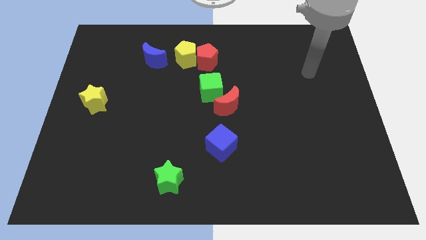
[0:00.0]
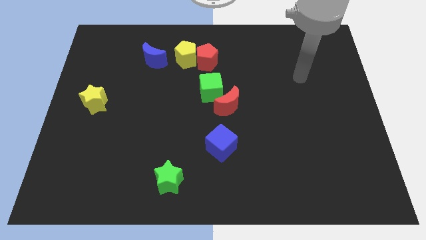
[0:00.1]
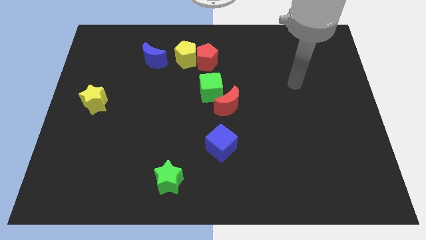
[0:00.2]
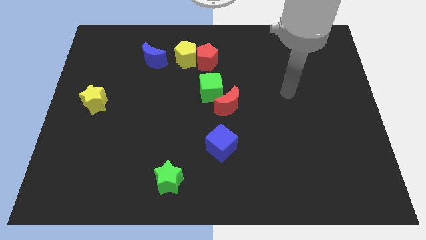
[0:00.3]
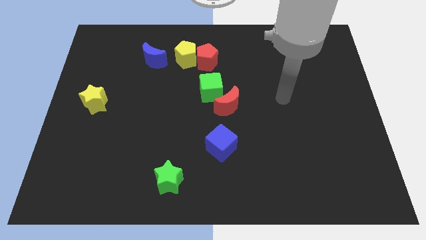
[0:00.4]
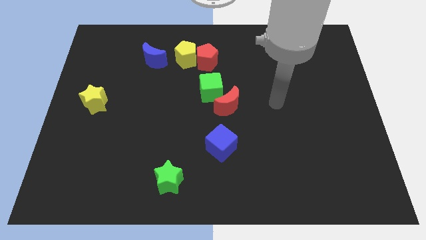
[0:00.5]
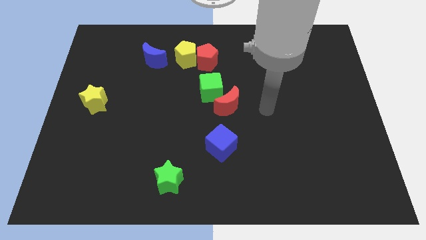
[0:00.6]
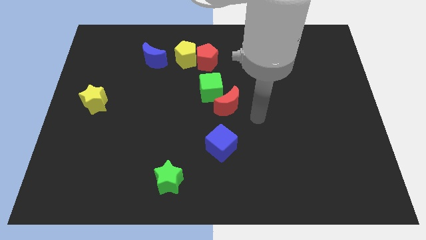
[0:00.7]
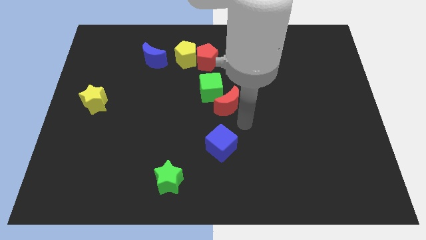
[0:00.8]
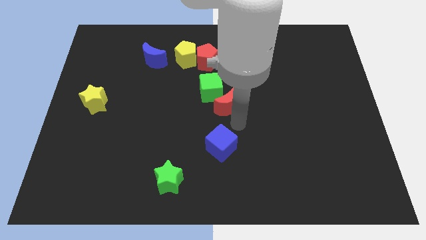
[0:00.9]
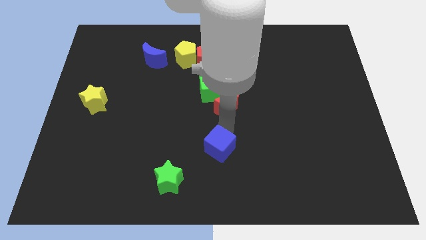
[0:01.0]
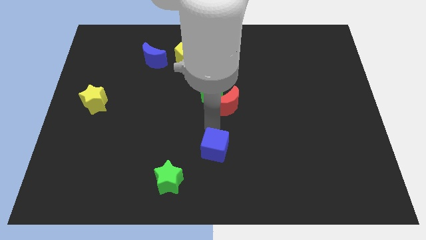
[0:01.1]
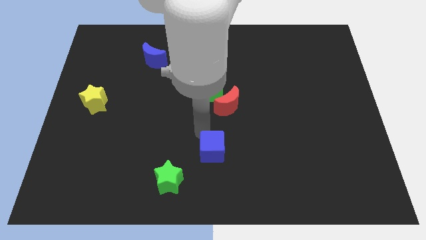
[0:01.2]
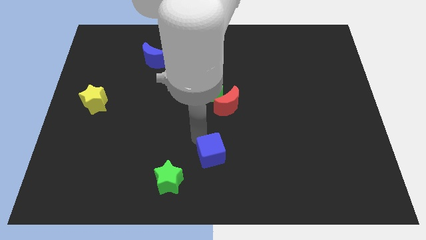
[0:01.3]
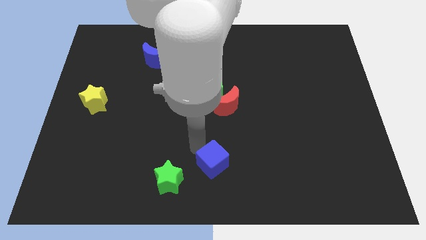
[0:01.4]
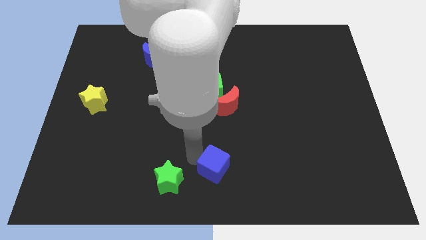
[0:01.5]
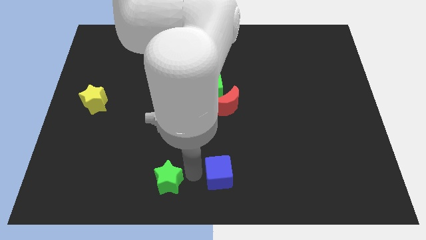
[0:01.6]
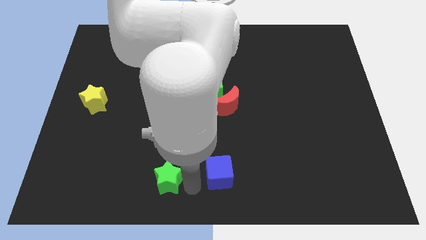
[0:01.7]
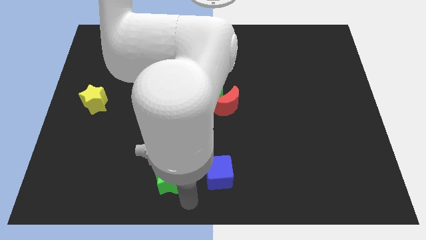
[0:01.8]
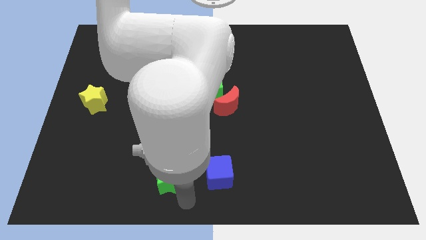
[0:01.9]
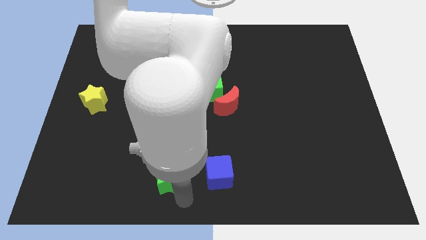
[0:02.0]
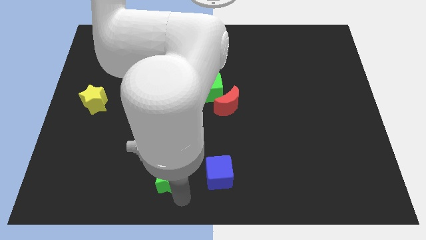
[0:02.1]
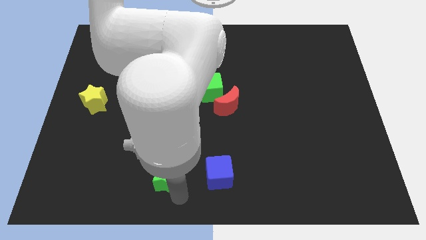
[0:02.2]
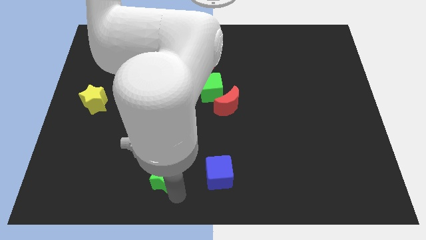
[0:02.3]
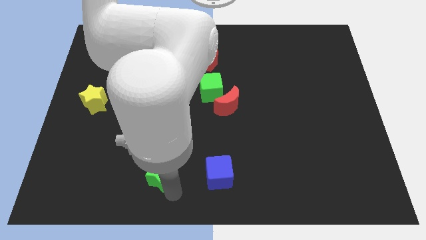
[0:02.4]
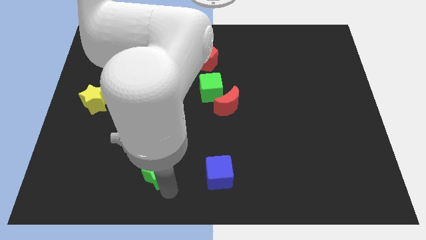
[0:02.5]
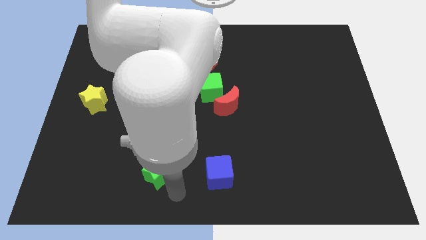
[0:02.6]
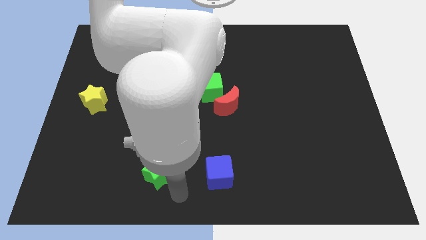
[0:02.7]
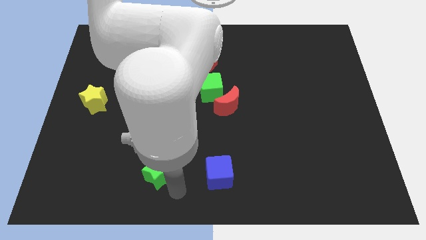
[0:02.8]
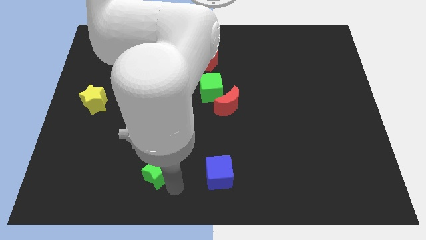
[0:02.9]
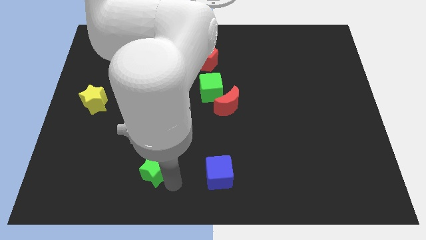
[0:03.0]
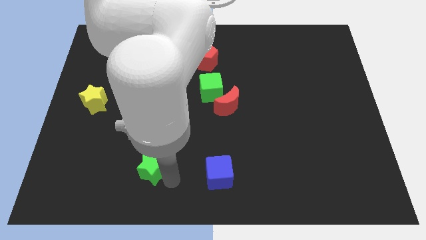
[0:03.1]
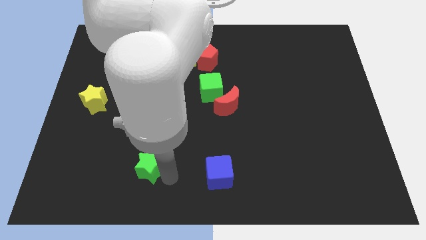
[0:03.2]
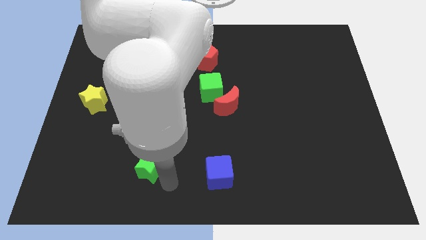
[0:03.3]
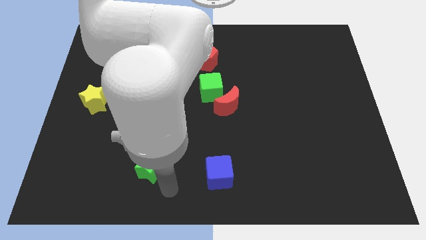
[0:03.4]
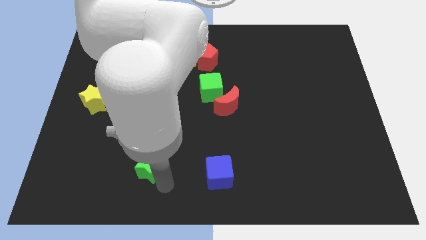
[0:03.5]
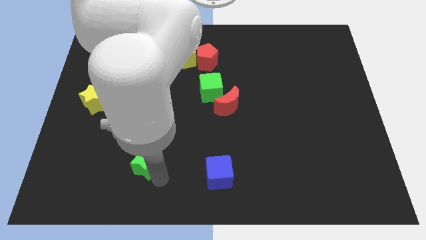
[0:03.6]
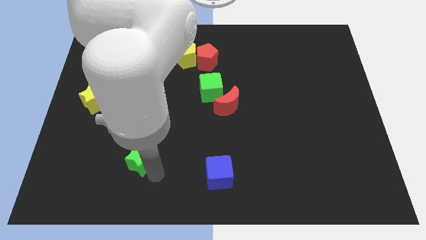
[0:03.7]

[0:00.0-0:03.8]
slightly slide the green star upwards and to the left

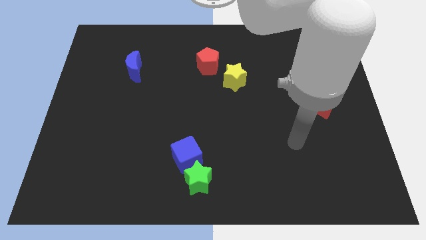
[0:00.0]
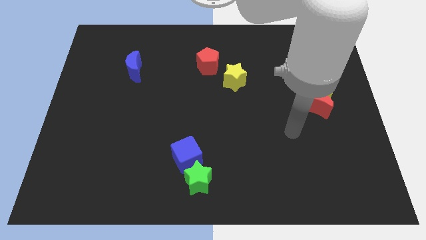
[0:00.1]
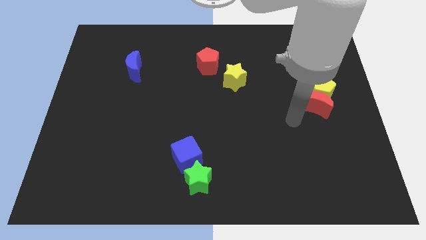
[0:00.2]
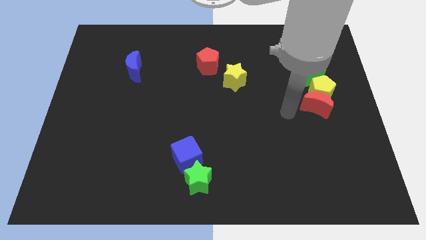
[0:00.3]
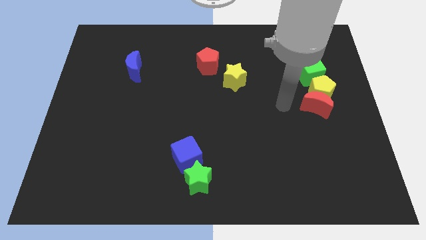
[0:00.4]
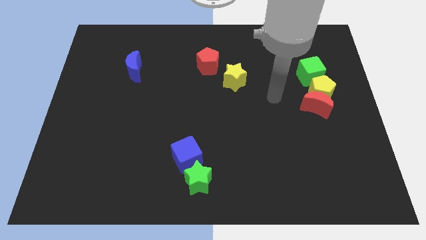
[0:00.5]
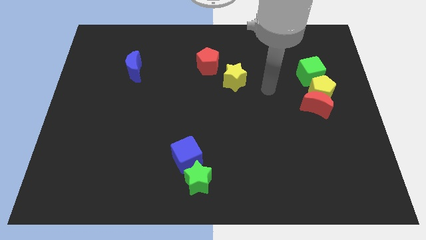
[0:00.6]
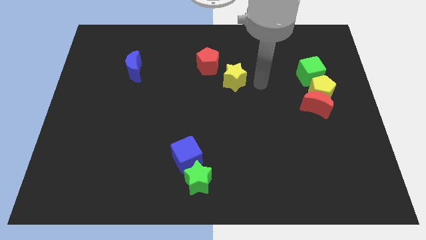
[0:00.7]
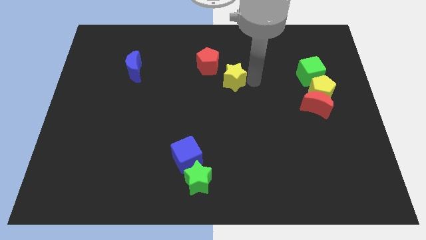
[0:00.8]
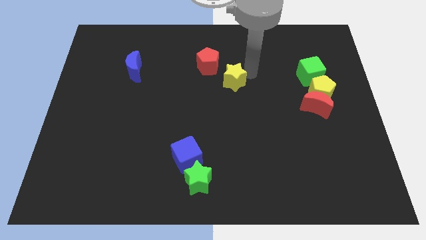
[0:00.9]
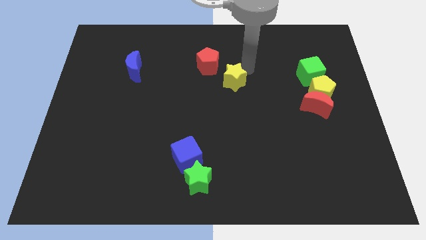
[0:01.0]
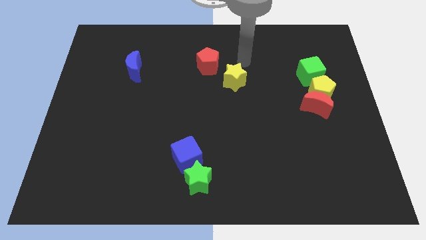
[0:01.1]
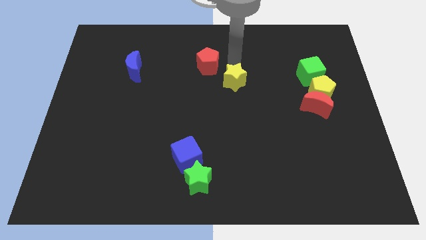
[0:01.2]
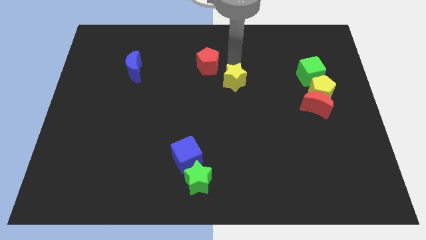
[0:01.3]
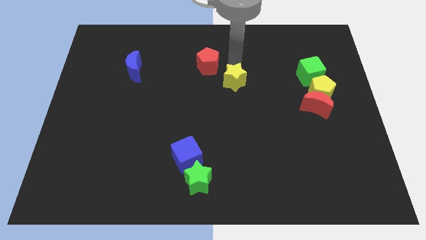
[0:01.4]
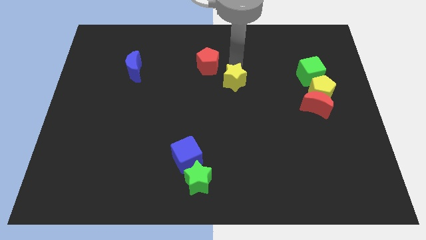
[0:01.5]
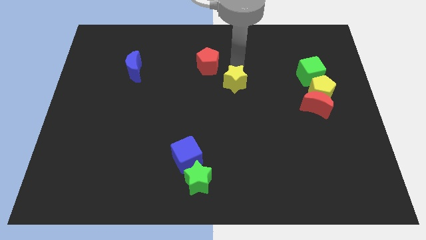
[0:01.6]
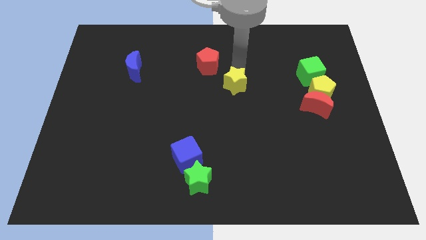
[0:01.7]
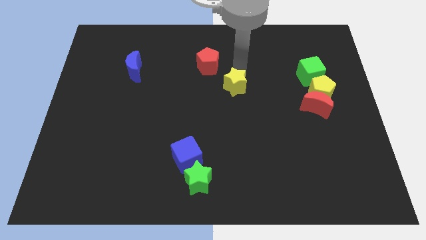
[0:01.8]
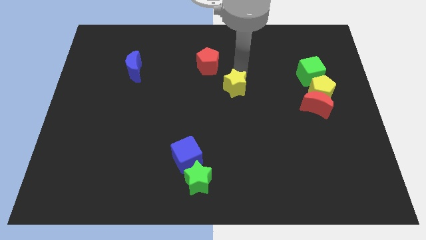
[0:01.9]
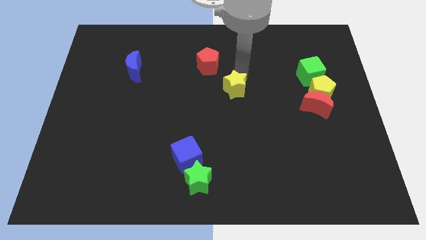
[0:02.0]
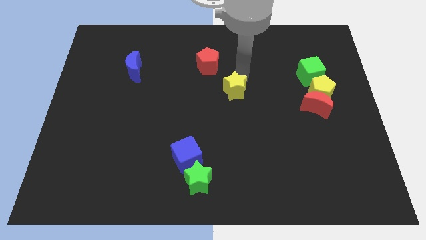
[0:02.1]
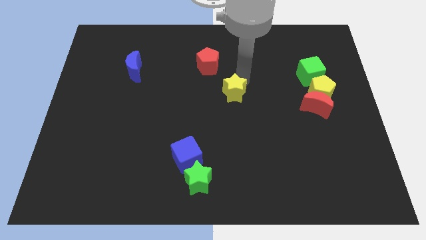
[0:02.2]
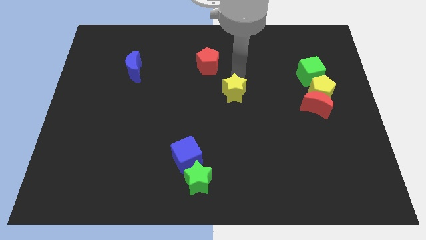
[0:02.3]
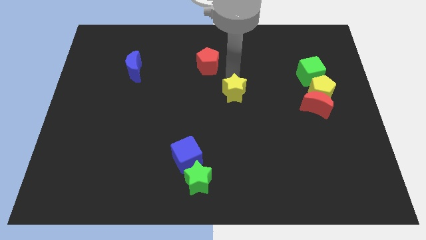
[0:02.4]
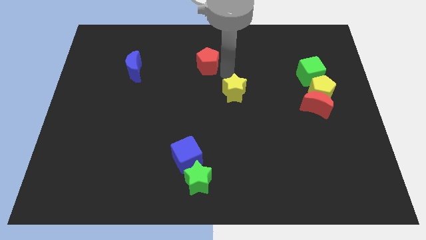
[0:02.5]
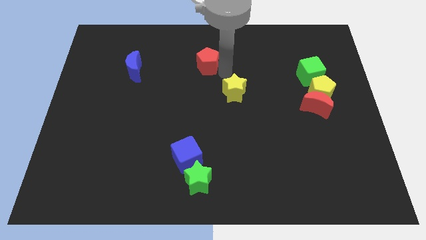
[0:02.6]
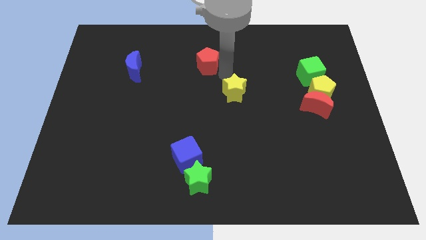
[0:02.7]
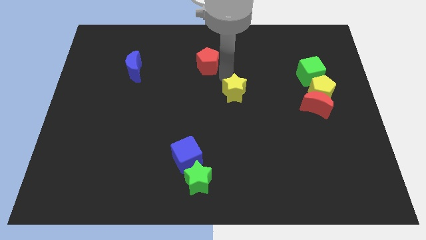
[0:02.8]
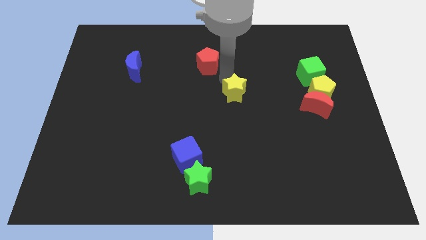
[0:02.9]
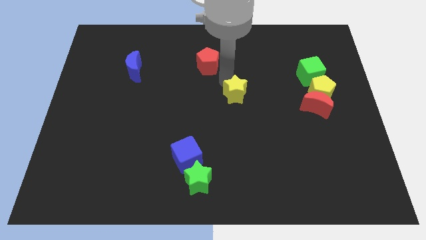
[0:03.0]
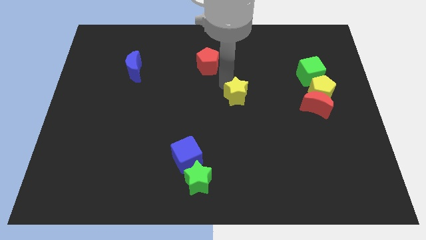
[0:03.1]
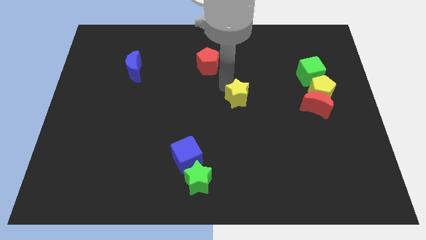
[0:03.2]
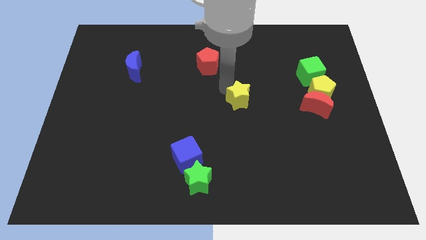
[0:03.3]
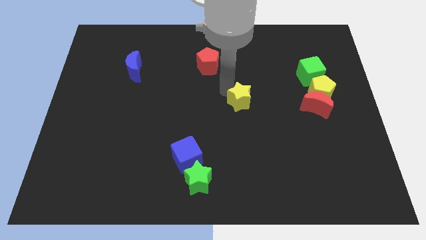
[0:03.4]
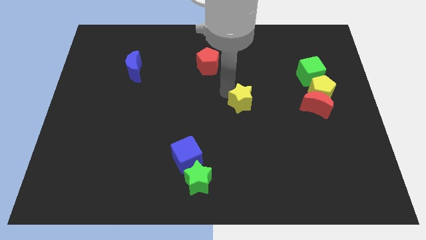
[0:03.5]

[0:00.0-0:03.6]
slide the yellow star down slightly

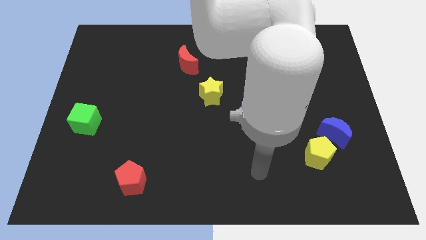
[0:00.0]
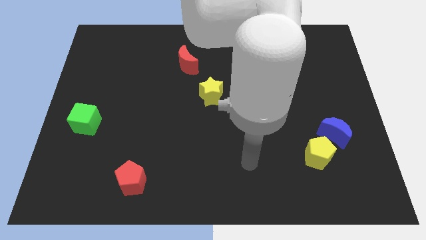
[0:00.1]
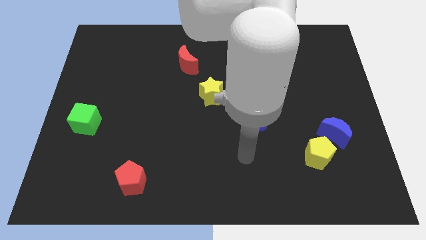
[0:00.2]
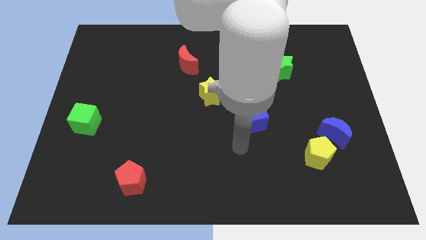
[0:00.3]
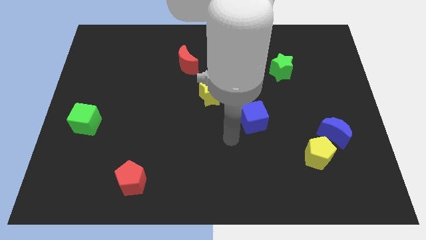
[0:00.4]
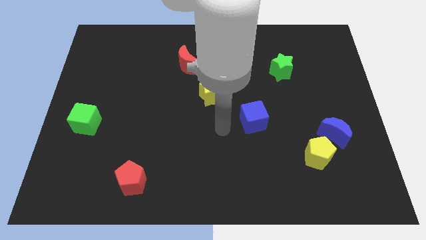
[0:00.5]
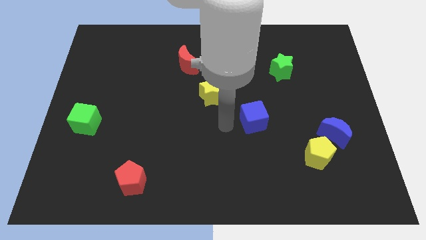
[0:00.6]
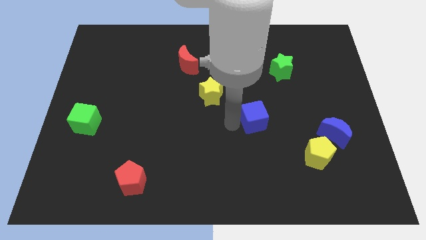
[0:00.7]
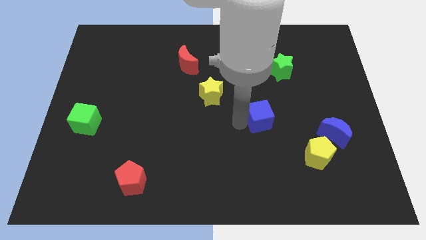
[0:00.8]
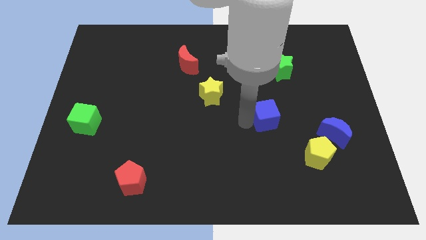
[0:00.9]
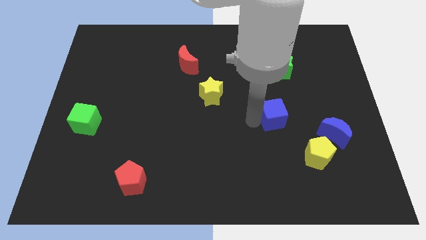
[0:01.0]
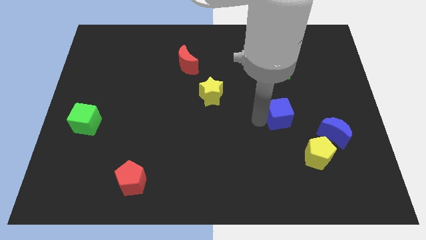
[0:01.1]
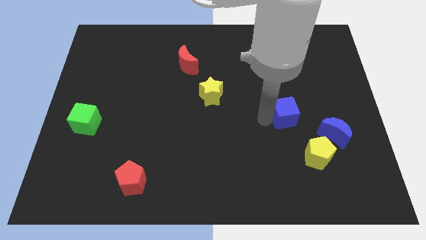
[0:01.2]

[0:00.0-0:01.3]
slightly slide the blue cube right
